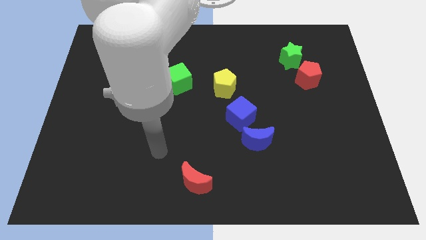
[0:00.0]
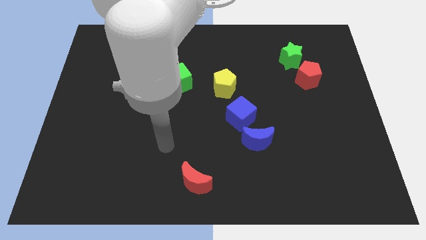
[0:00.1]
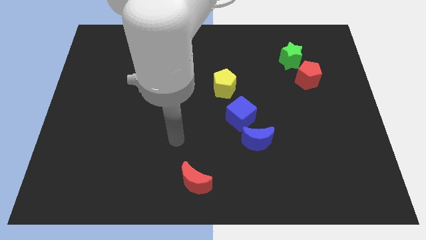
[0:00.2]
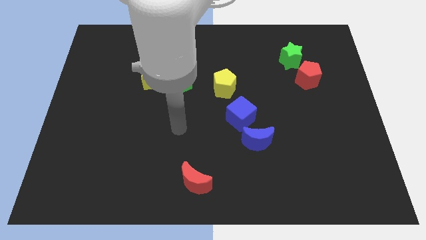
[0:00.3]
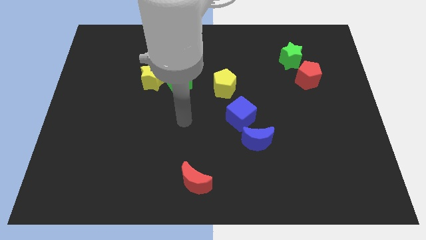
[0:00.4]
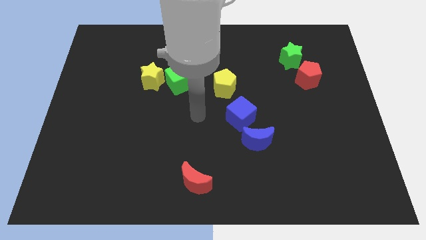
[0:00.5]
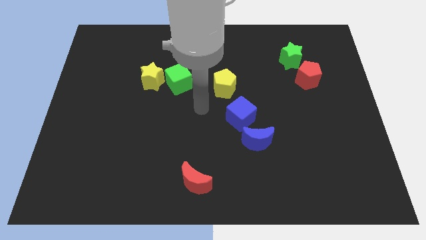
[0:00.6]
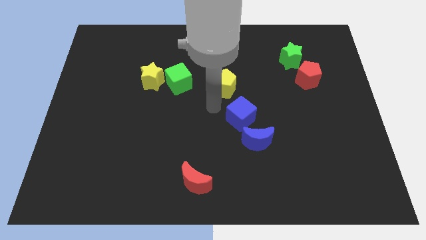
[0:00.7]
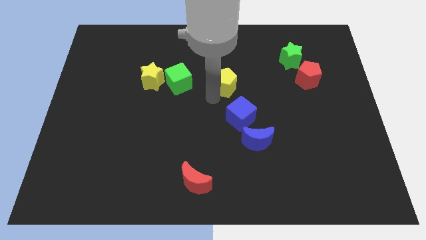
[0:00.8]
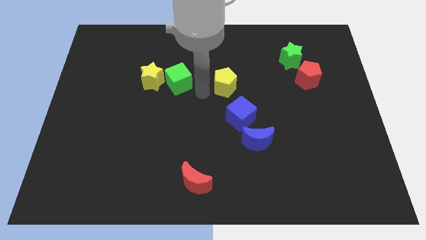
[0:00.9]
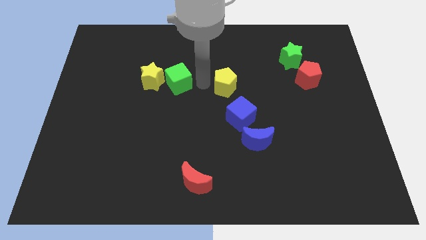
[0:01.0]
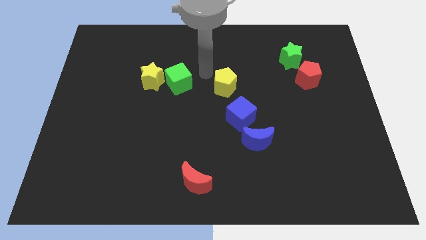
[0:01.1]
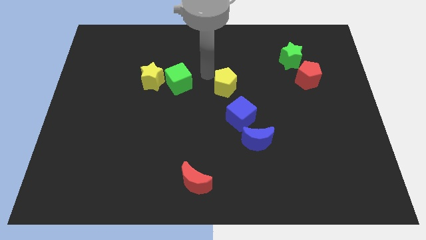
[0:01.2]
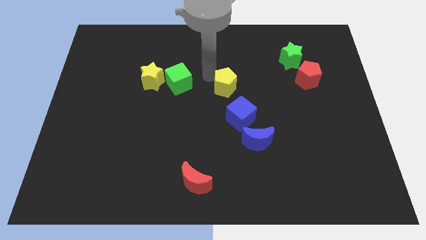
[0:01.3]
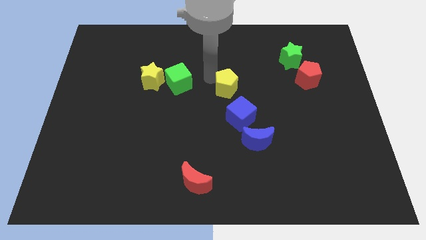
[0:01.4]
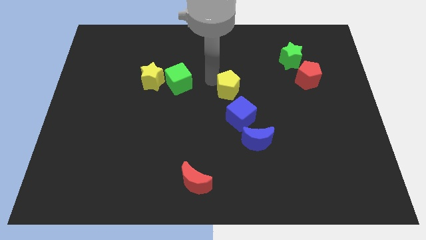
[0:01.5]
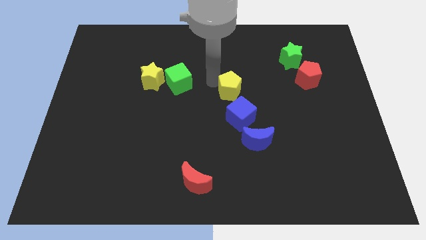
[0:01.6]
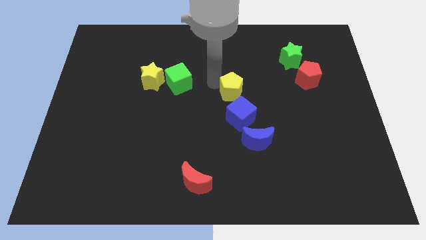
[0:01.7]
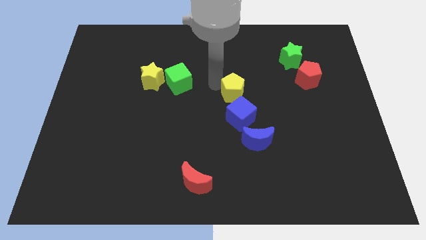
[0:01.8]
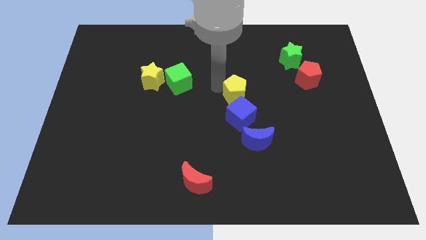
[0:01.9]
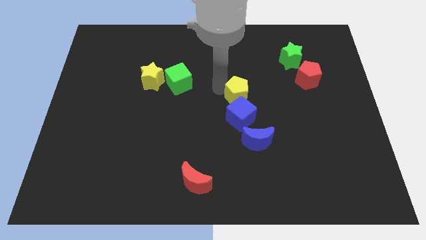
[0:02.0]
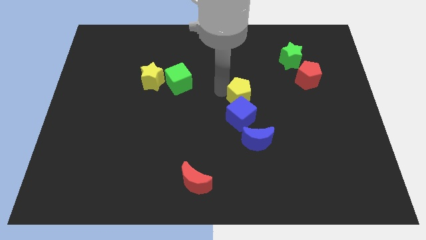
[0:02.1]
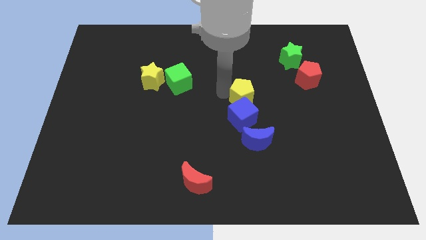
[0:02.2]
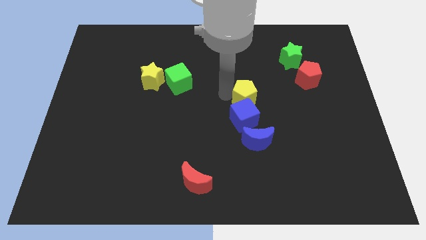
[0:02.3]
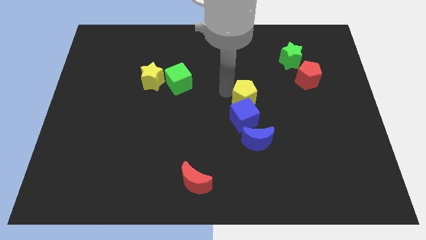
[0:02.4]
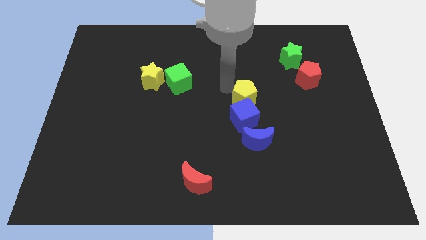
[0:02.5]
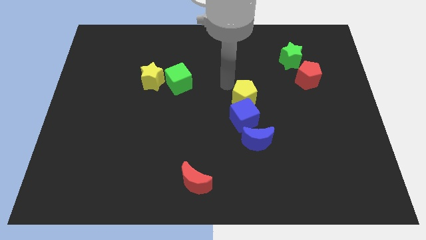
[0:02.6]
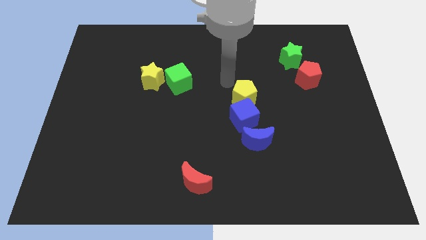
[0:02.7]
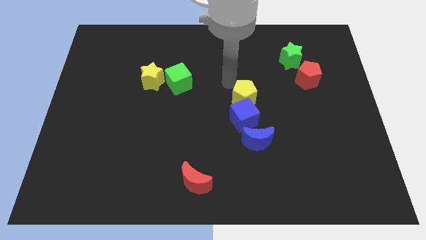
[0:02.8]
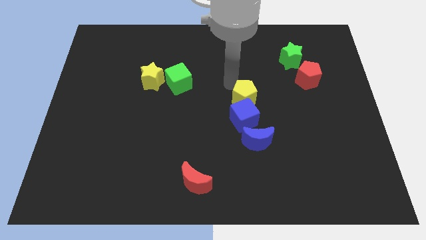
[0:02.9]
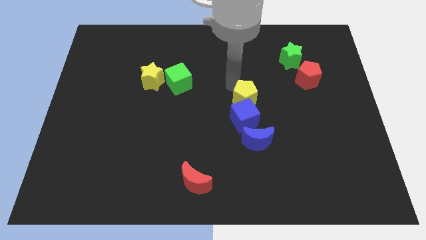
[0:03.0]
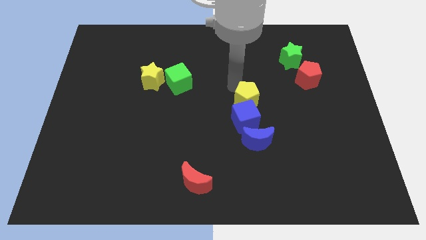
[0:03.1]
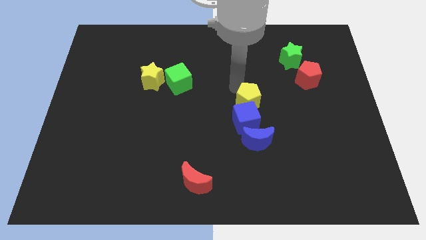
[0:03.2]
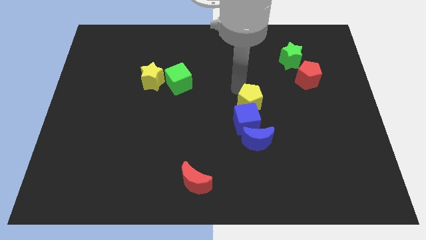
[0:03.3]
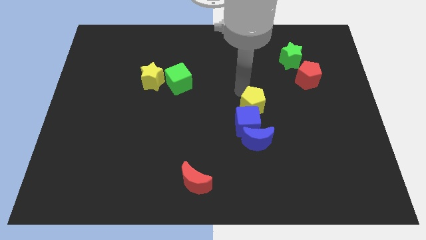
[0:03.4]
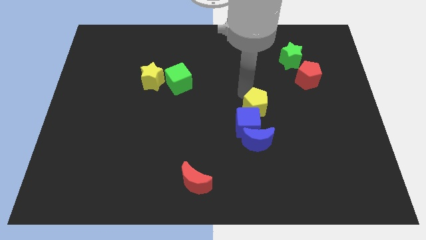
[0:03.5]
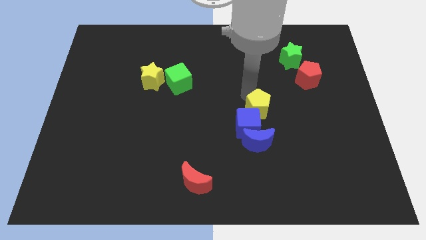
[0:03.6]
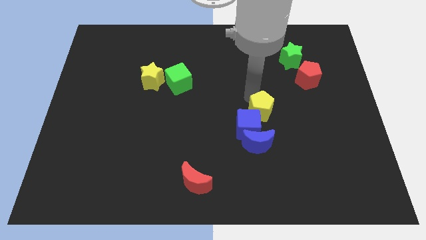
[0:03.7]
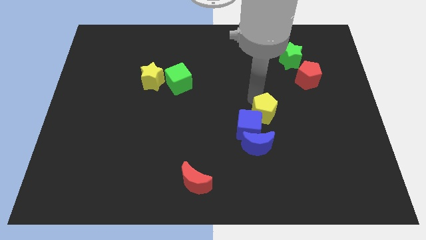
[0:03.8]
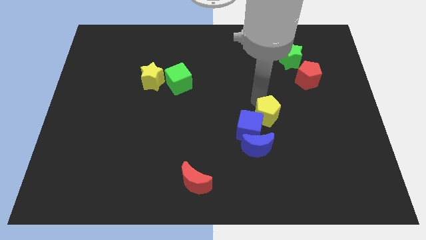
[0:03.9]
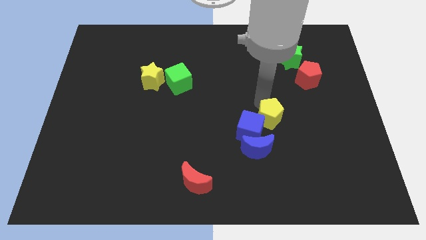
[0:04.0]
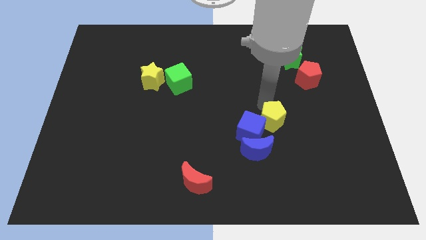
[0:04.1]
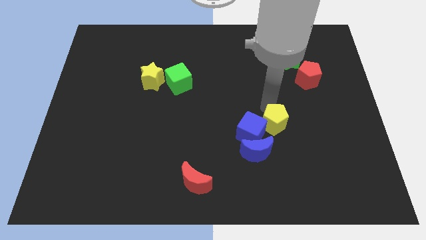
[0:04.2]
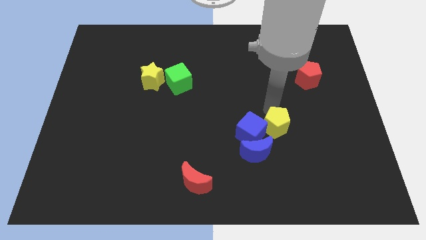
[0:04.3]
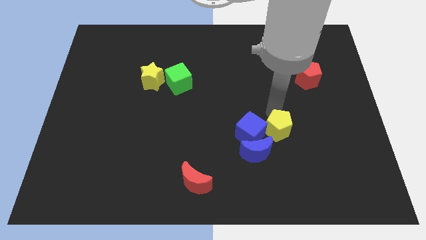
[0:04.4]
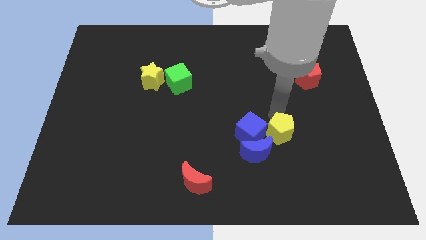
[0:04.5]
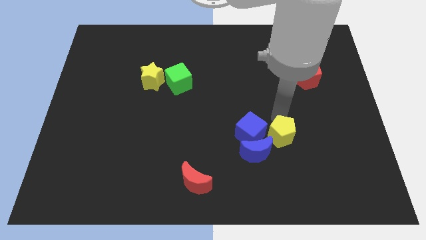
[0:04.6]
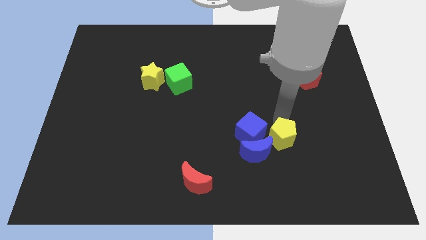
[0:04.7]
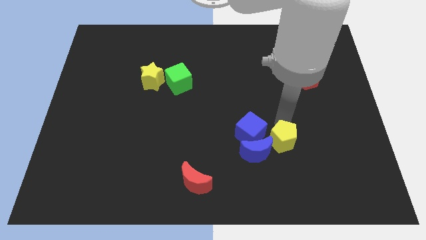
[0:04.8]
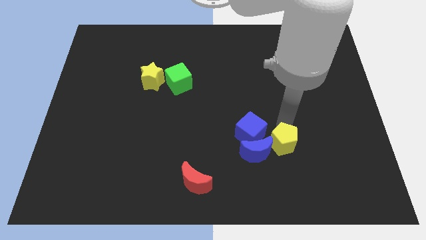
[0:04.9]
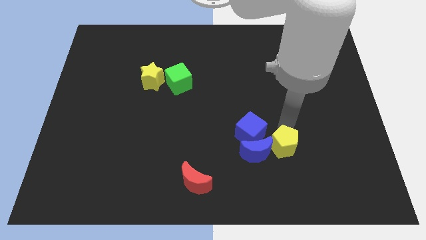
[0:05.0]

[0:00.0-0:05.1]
put the yellow pentagon to the blue moon

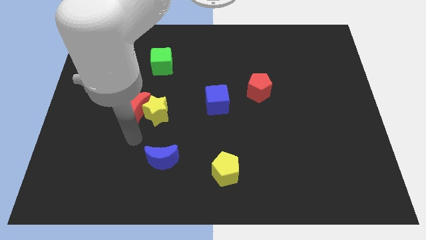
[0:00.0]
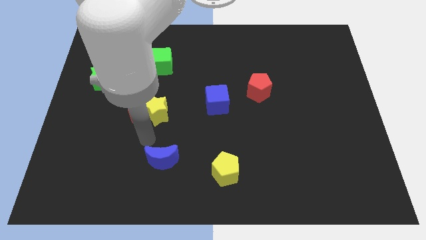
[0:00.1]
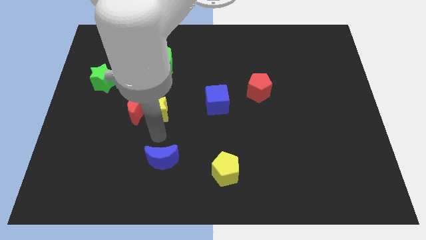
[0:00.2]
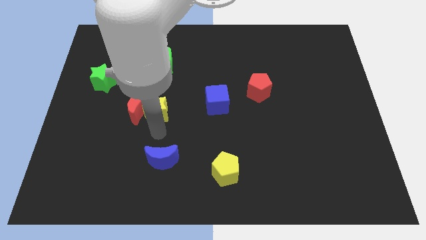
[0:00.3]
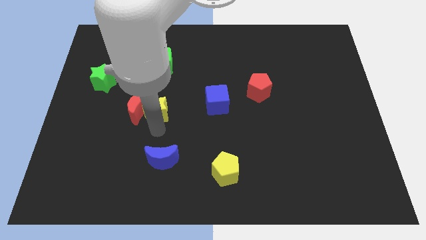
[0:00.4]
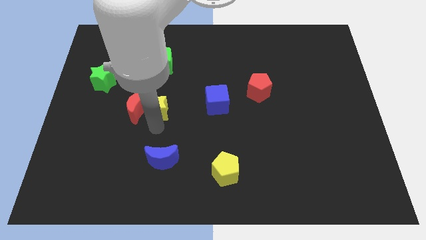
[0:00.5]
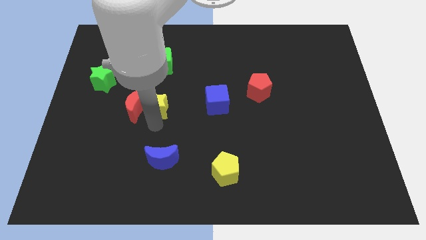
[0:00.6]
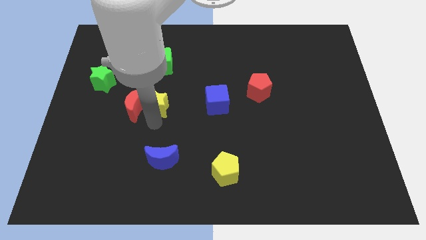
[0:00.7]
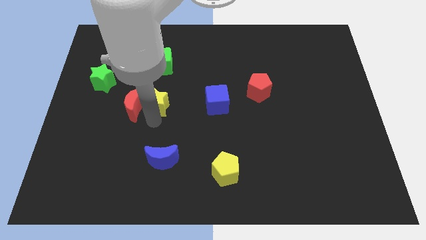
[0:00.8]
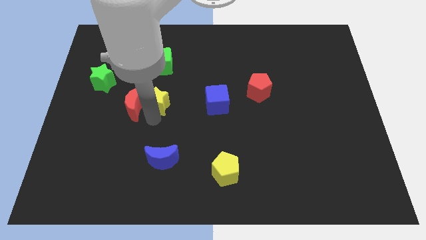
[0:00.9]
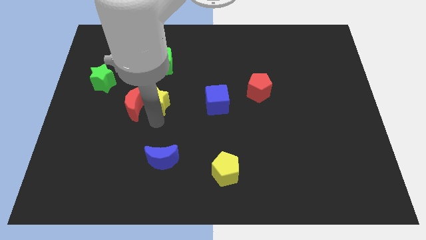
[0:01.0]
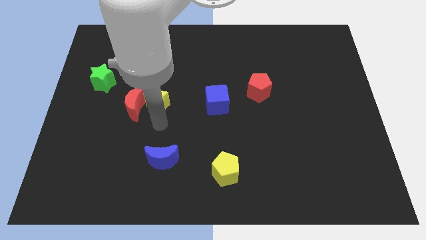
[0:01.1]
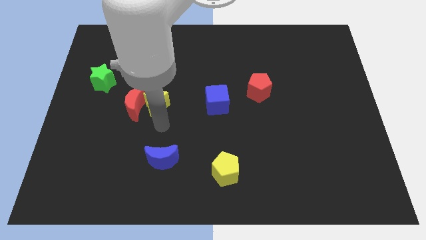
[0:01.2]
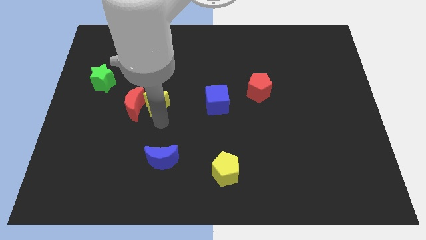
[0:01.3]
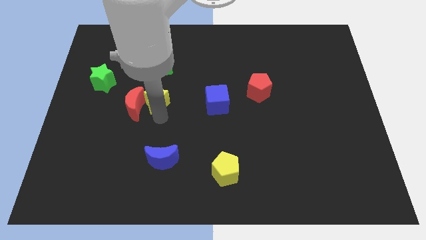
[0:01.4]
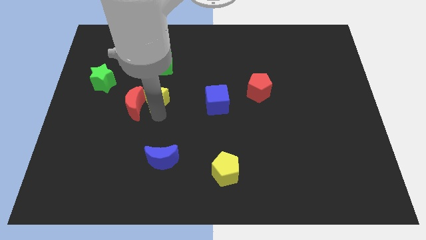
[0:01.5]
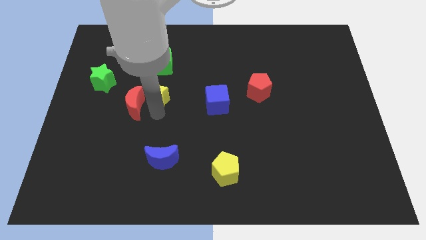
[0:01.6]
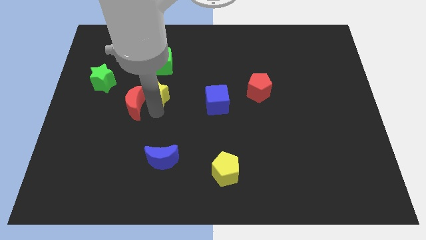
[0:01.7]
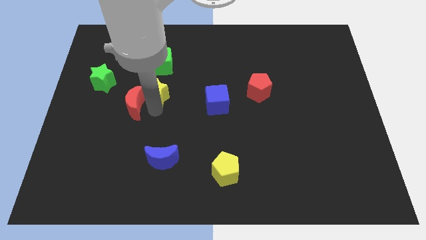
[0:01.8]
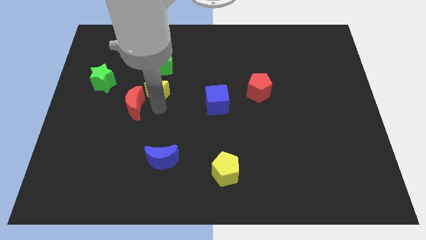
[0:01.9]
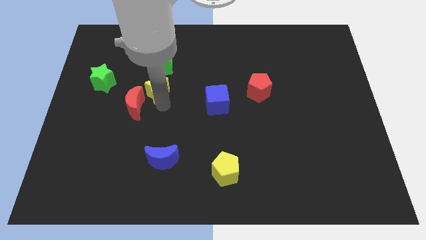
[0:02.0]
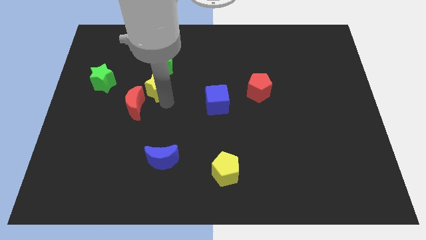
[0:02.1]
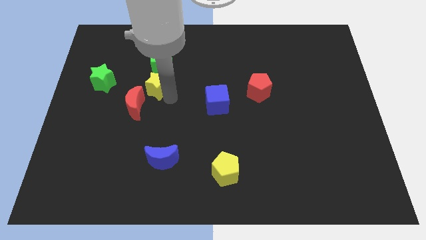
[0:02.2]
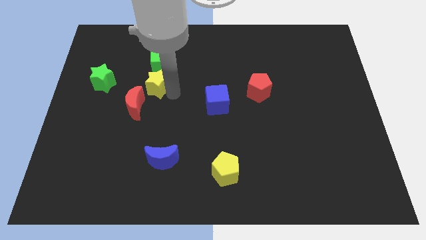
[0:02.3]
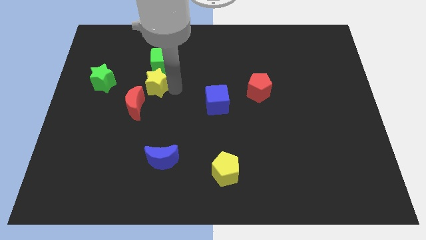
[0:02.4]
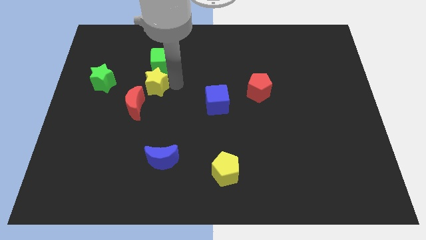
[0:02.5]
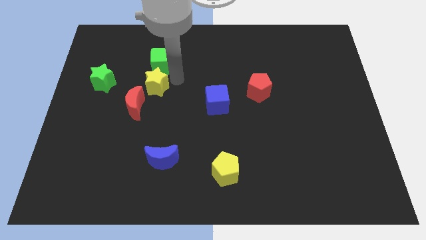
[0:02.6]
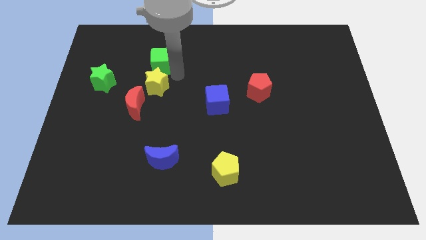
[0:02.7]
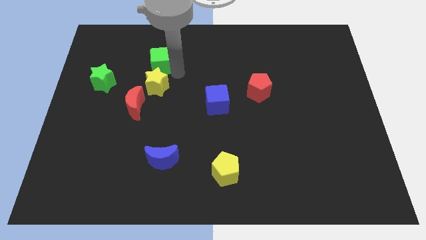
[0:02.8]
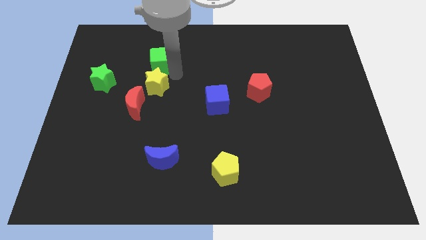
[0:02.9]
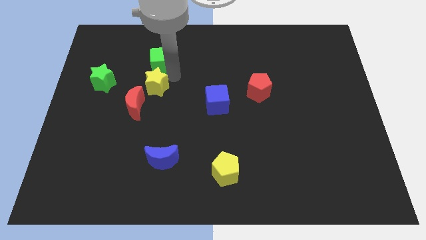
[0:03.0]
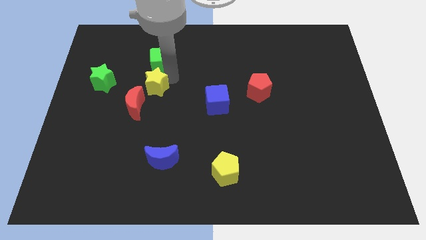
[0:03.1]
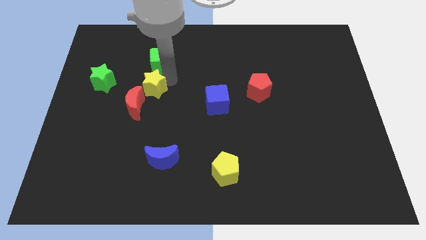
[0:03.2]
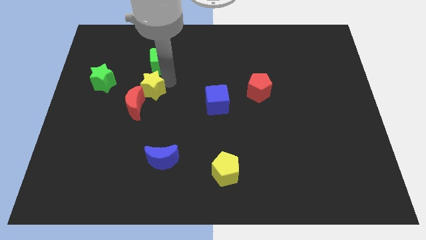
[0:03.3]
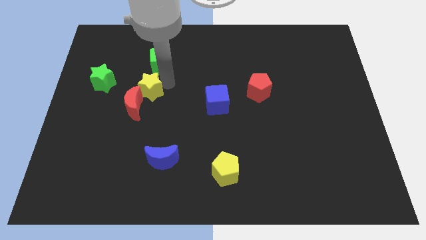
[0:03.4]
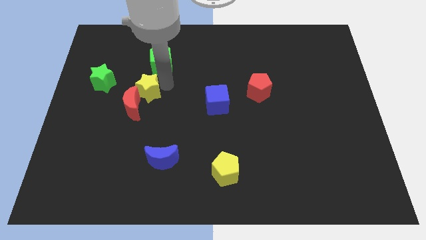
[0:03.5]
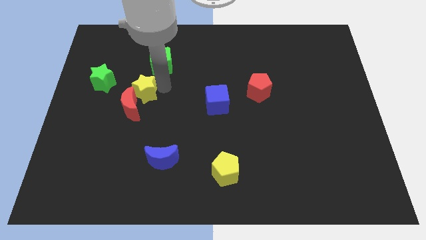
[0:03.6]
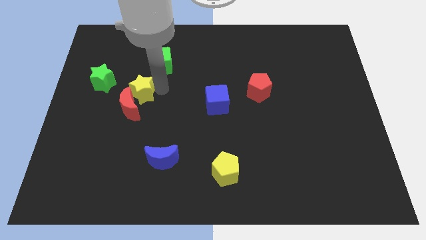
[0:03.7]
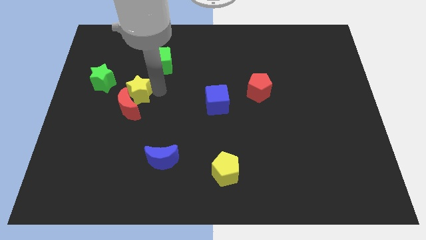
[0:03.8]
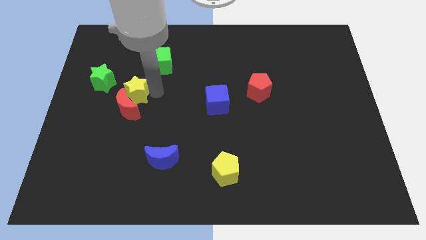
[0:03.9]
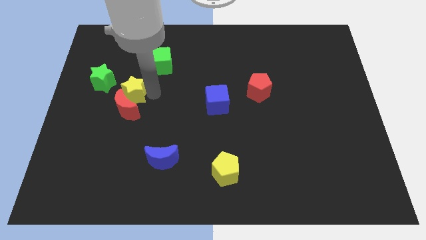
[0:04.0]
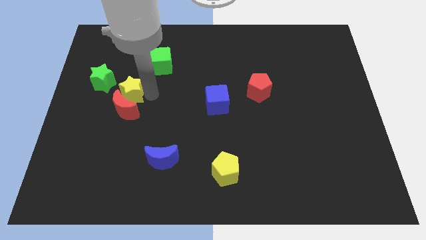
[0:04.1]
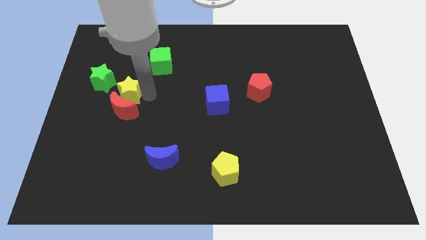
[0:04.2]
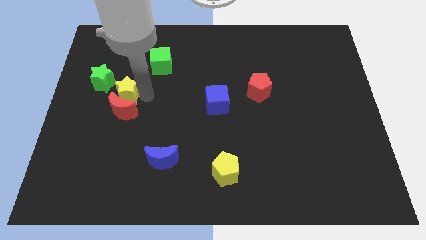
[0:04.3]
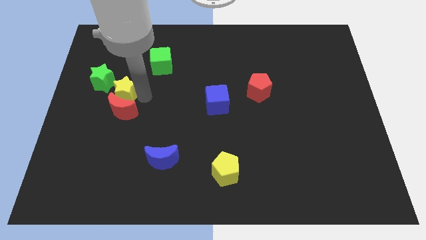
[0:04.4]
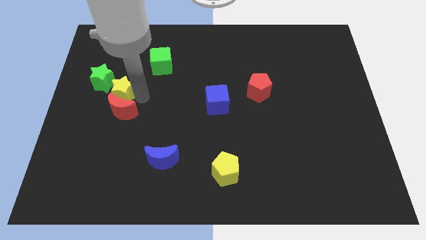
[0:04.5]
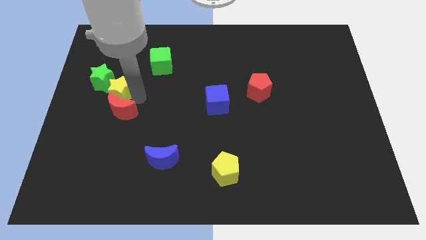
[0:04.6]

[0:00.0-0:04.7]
put the yellow star next to the green star
